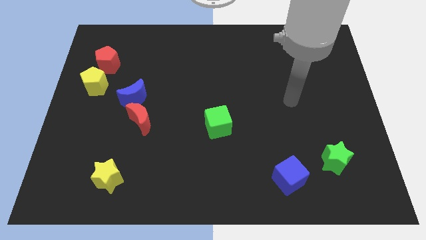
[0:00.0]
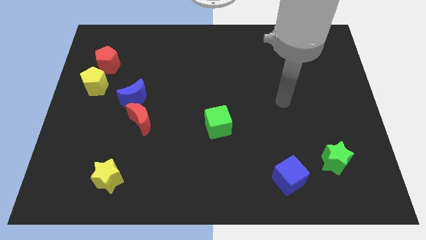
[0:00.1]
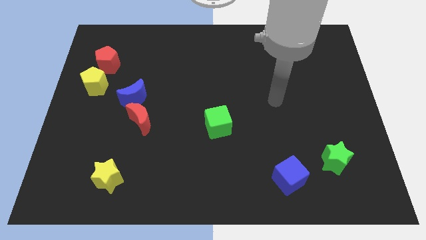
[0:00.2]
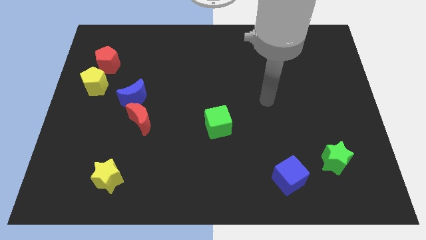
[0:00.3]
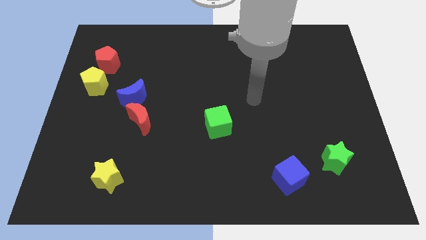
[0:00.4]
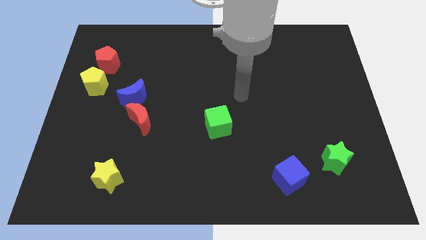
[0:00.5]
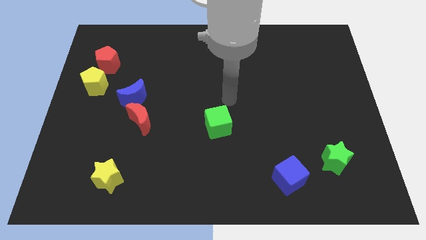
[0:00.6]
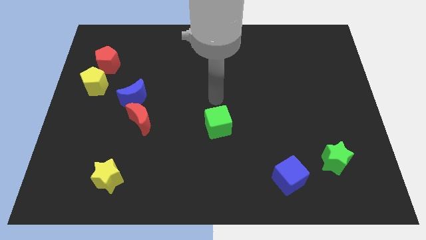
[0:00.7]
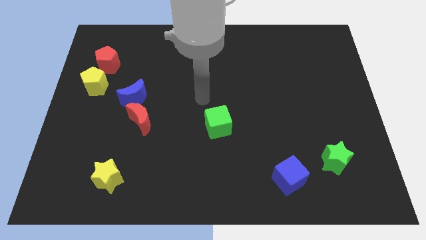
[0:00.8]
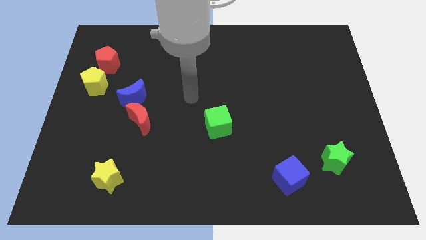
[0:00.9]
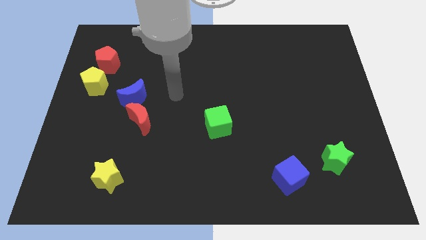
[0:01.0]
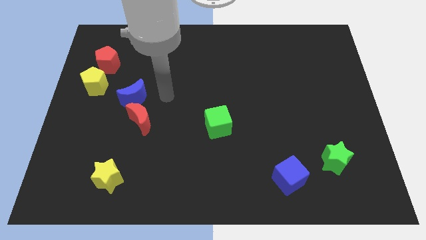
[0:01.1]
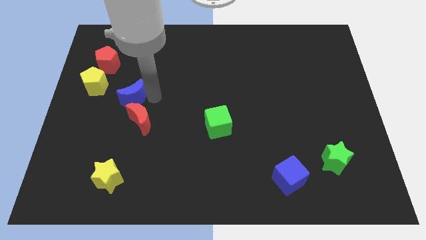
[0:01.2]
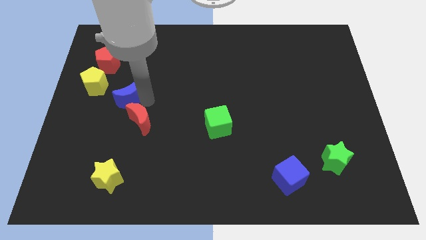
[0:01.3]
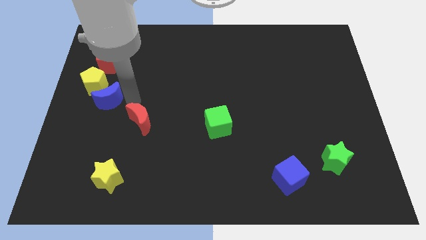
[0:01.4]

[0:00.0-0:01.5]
move the red moon away from the blue moon

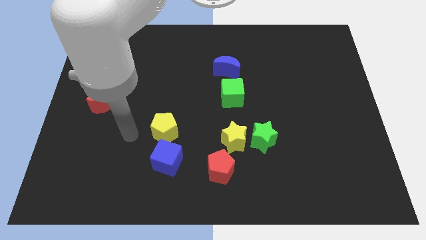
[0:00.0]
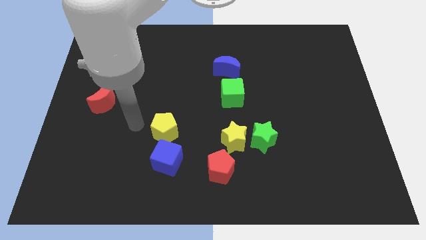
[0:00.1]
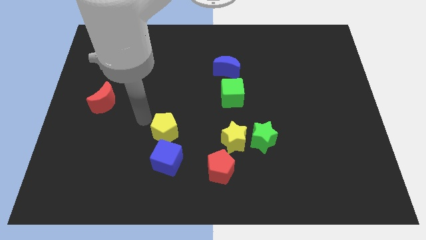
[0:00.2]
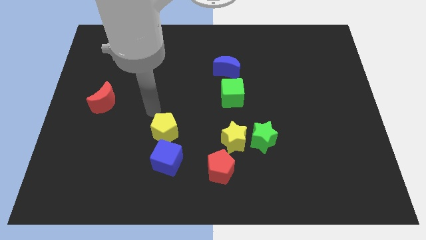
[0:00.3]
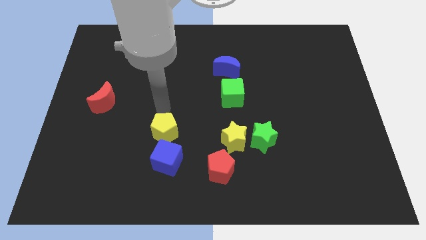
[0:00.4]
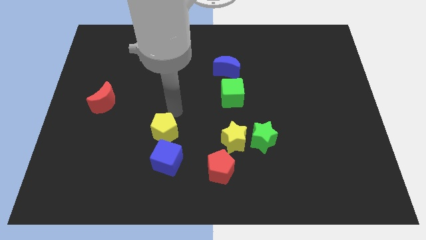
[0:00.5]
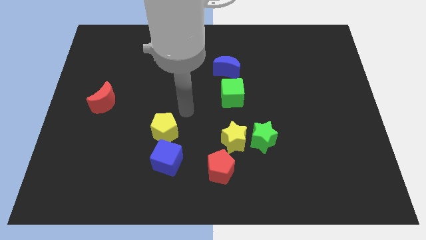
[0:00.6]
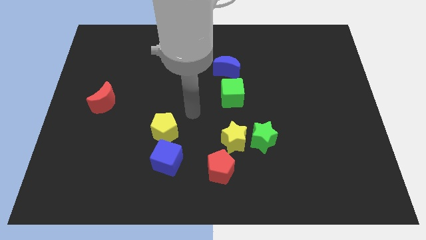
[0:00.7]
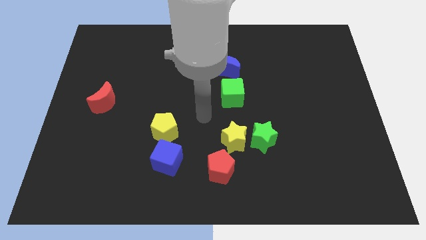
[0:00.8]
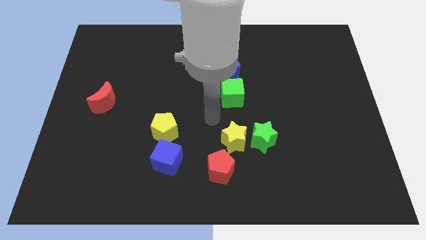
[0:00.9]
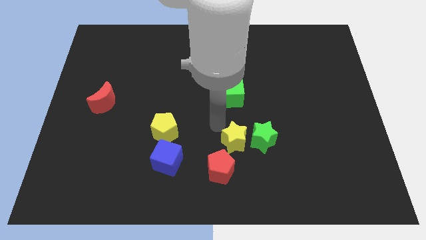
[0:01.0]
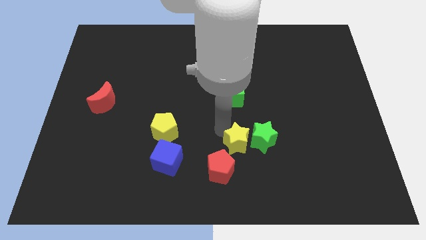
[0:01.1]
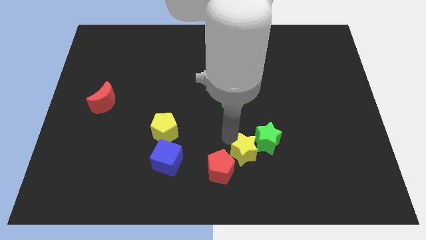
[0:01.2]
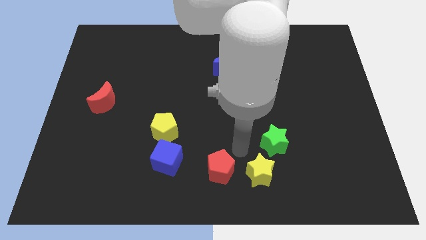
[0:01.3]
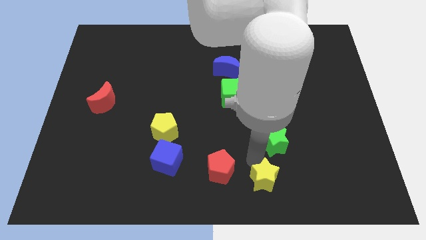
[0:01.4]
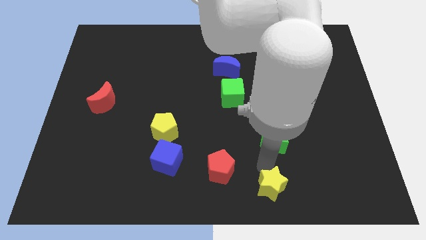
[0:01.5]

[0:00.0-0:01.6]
pull the green star apart from the yellow star

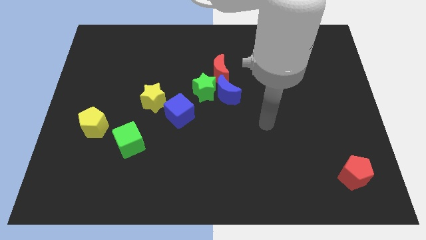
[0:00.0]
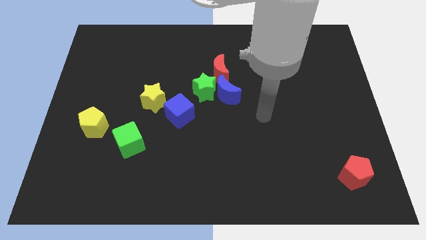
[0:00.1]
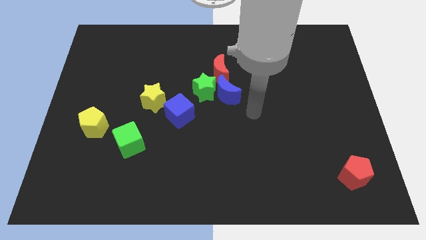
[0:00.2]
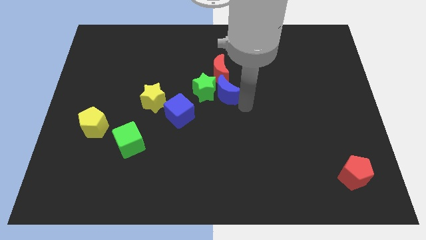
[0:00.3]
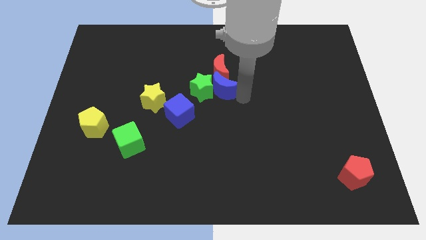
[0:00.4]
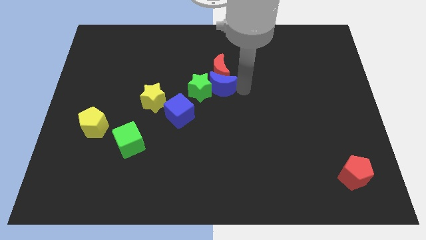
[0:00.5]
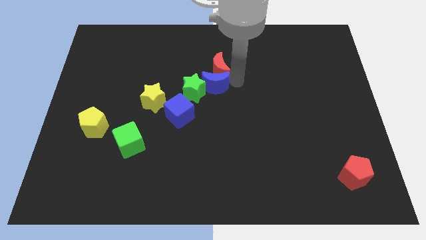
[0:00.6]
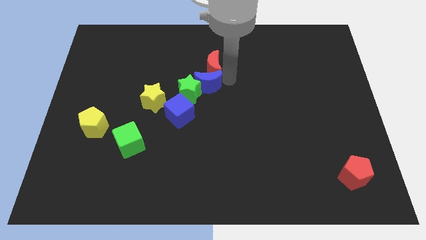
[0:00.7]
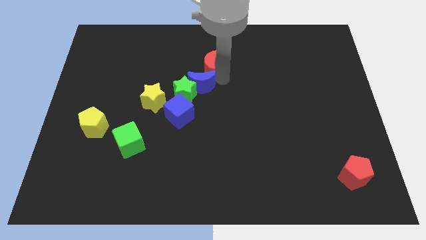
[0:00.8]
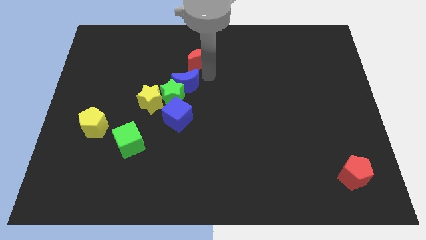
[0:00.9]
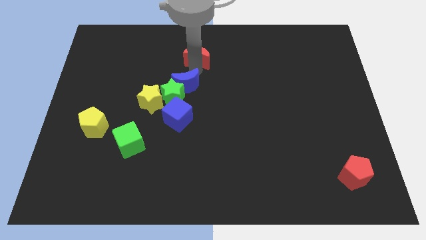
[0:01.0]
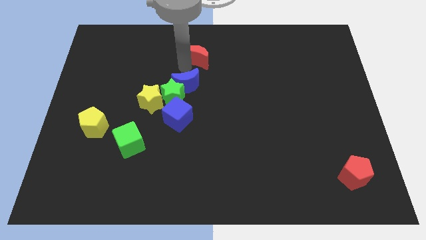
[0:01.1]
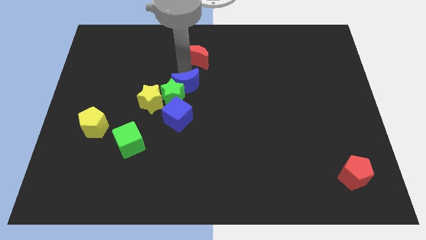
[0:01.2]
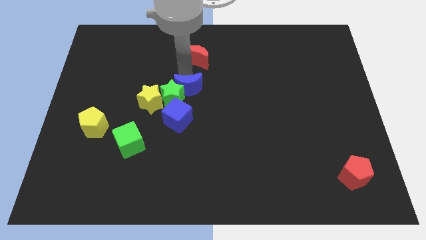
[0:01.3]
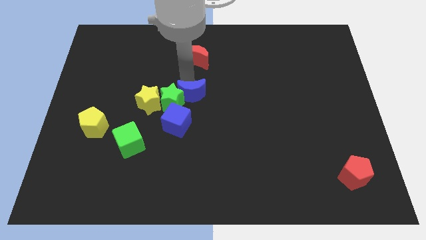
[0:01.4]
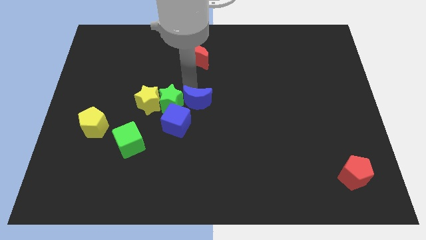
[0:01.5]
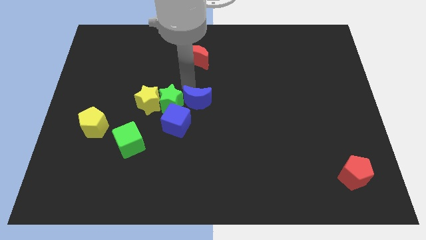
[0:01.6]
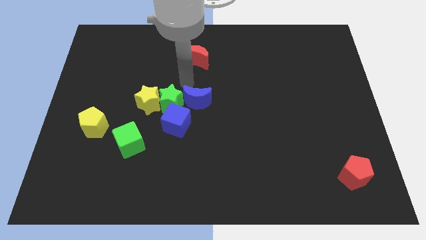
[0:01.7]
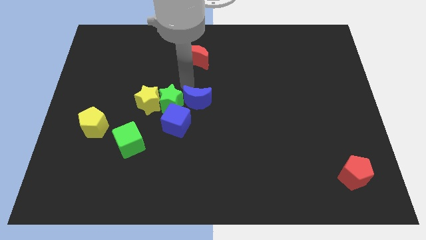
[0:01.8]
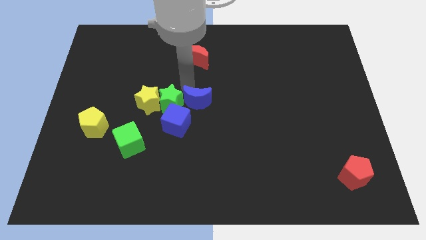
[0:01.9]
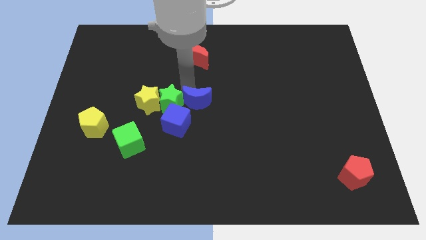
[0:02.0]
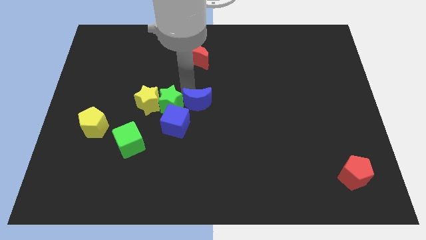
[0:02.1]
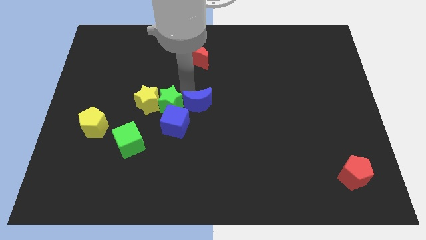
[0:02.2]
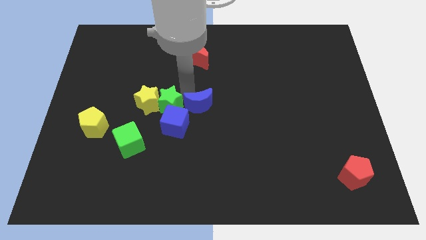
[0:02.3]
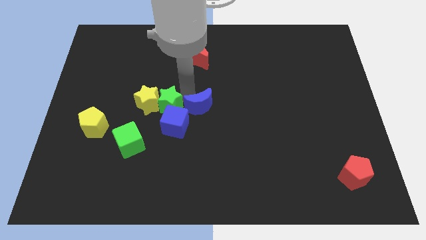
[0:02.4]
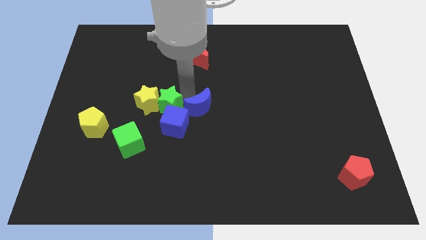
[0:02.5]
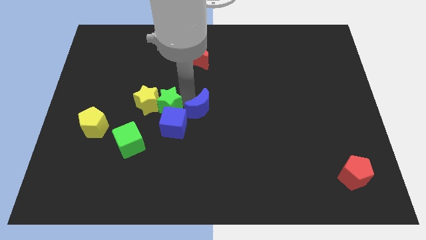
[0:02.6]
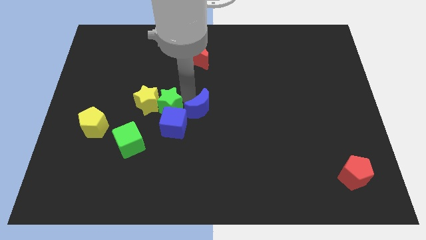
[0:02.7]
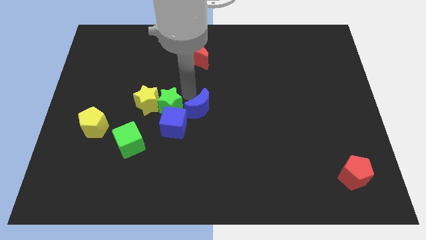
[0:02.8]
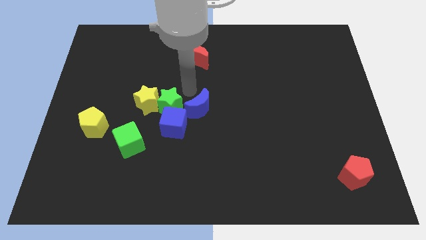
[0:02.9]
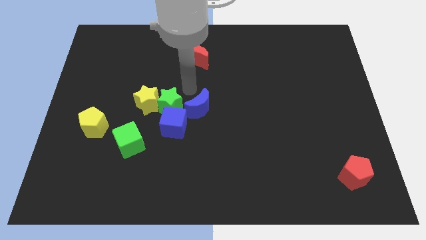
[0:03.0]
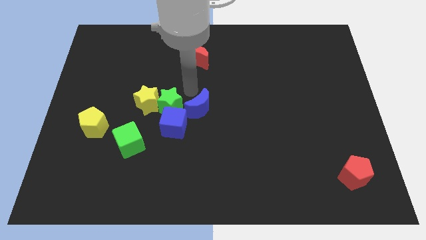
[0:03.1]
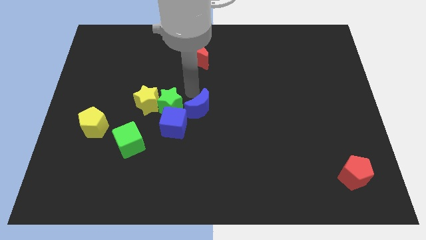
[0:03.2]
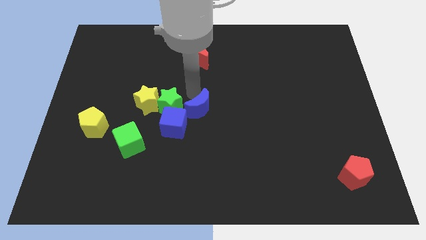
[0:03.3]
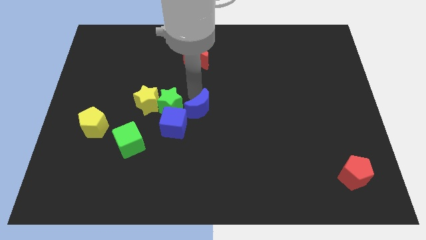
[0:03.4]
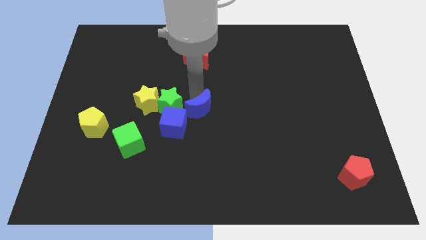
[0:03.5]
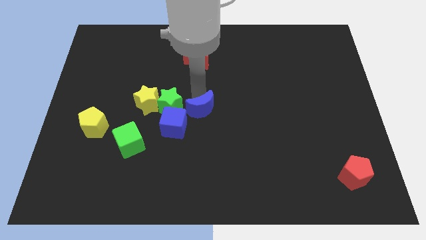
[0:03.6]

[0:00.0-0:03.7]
move the blue moon away from the green star and red moon

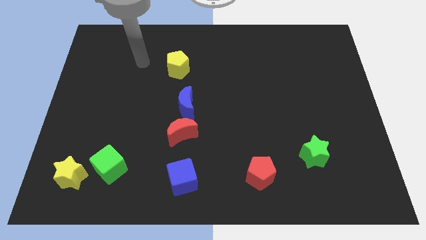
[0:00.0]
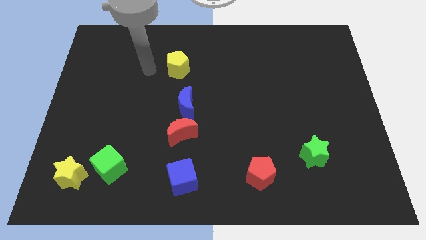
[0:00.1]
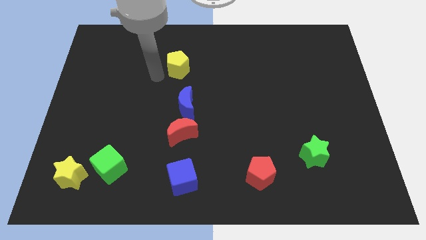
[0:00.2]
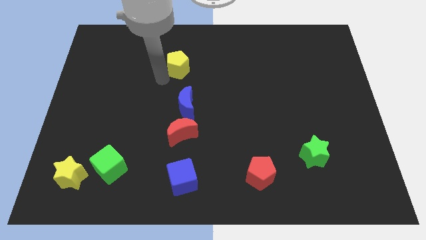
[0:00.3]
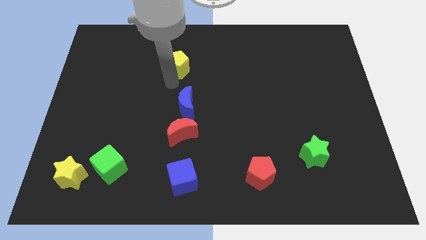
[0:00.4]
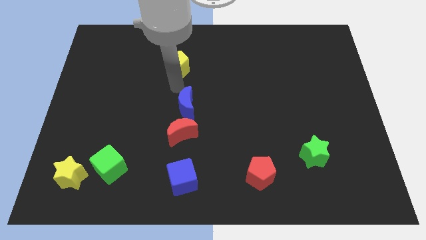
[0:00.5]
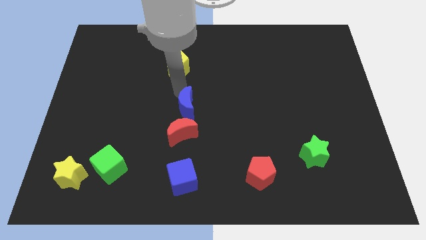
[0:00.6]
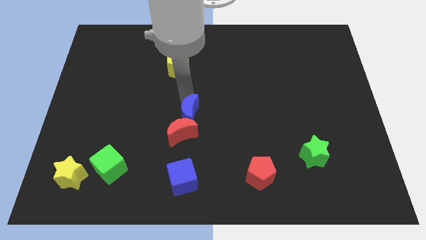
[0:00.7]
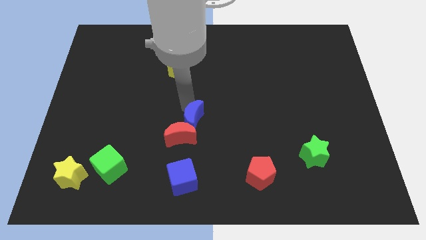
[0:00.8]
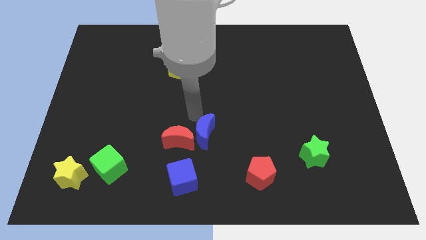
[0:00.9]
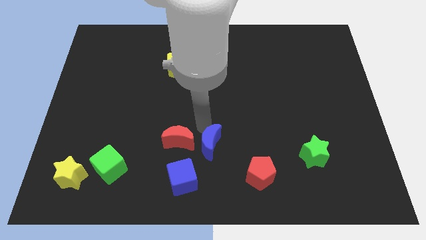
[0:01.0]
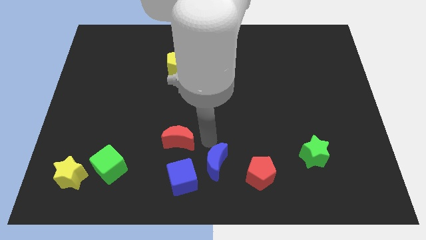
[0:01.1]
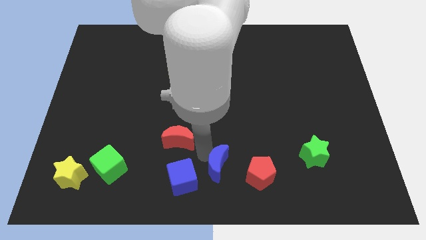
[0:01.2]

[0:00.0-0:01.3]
separate the red moon from the blue moon

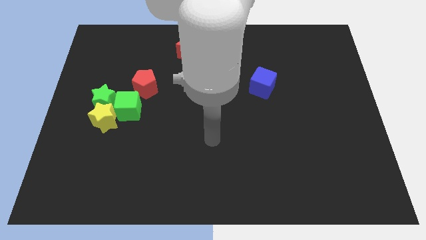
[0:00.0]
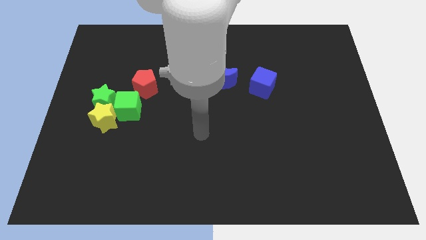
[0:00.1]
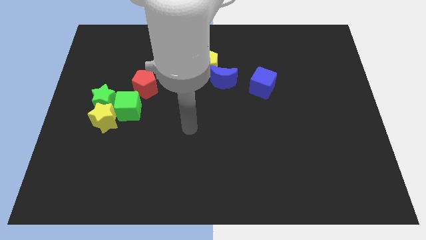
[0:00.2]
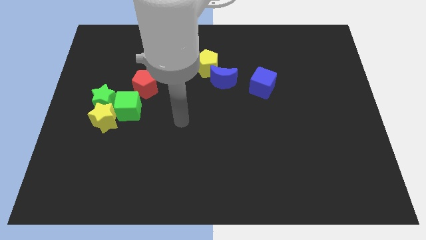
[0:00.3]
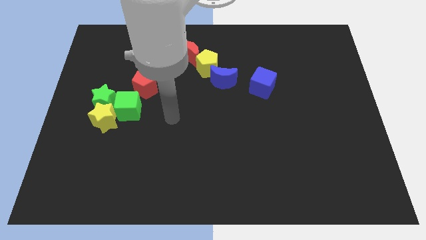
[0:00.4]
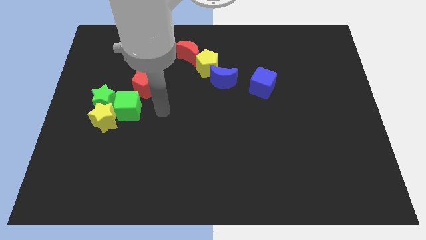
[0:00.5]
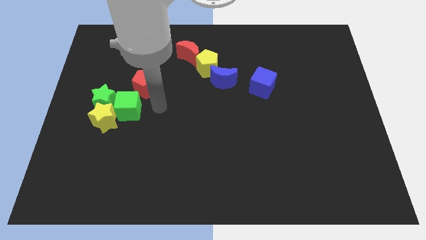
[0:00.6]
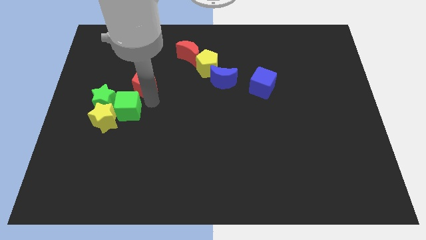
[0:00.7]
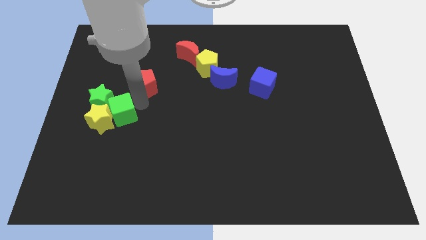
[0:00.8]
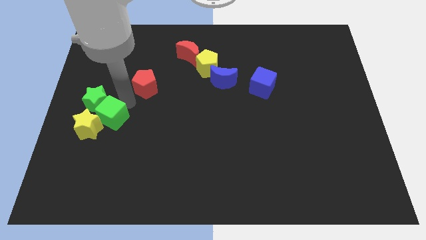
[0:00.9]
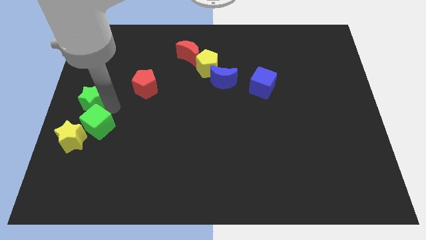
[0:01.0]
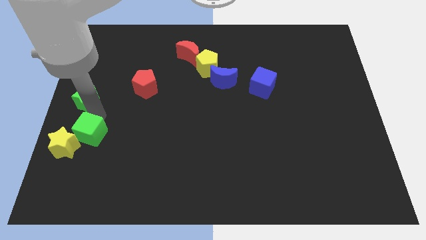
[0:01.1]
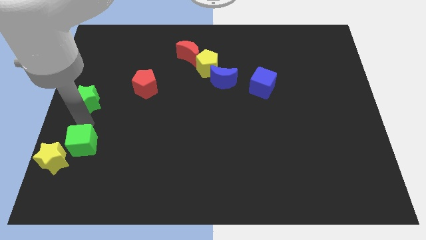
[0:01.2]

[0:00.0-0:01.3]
pull the yellow star apart from the green star and green cube
